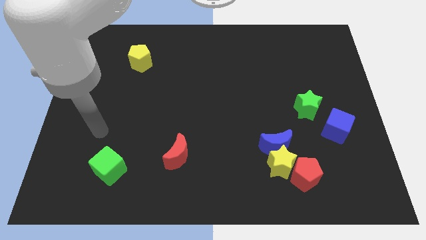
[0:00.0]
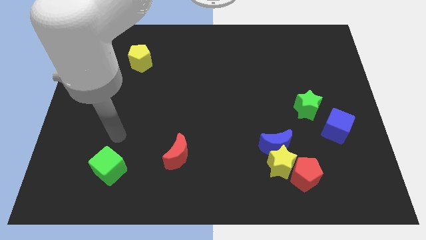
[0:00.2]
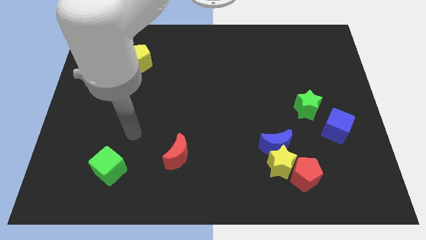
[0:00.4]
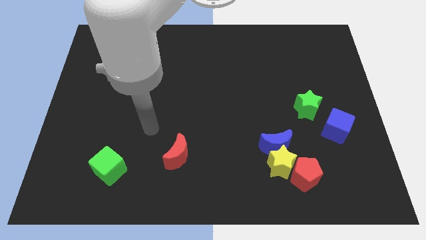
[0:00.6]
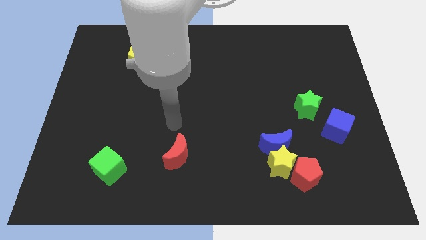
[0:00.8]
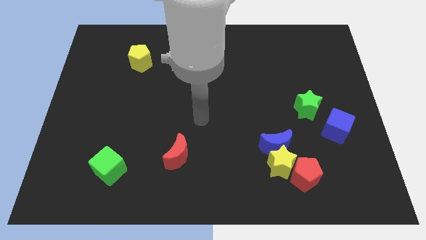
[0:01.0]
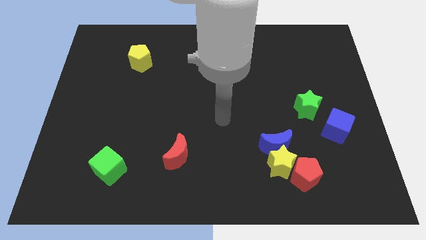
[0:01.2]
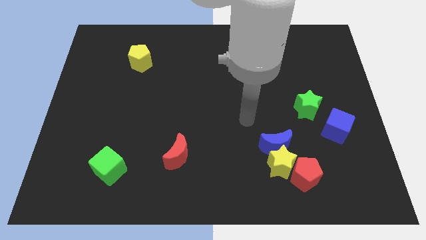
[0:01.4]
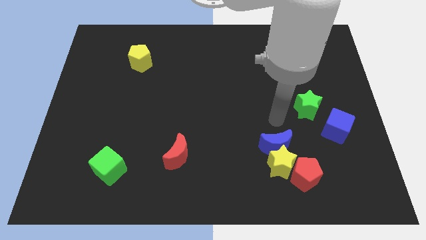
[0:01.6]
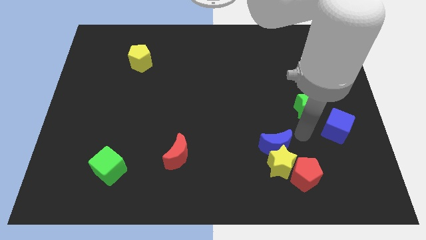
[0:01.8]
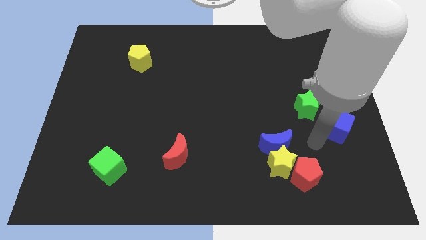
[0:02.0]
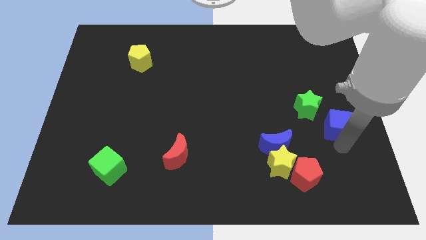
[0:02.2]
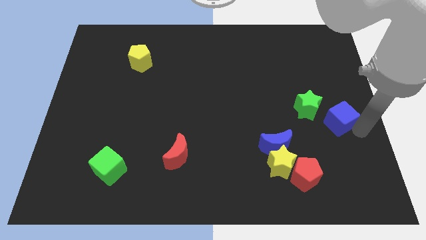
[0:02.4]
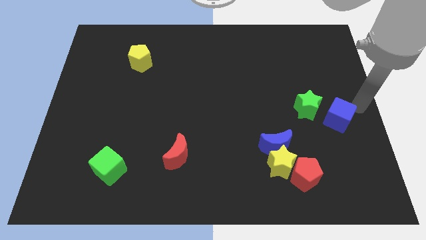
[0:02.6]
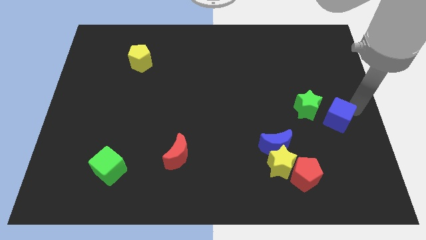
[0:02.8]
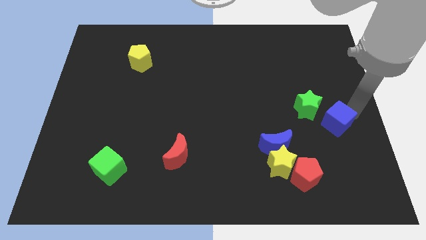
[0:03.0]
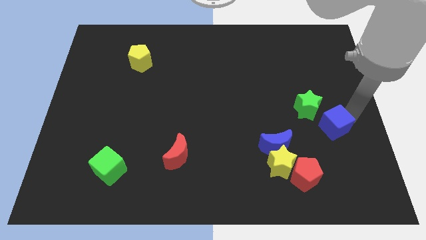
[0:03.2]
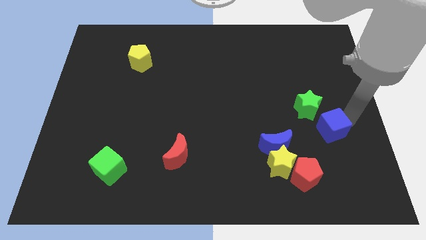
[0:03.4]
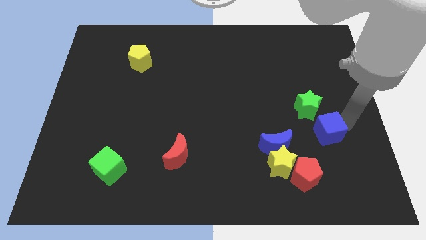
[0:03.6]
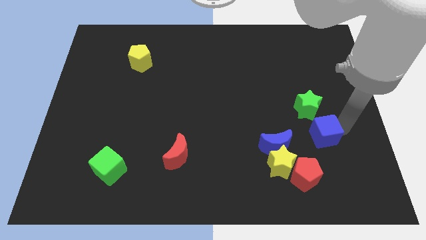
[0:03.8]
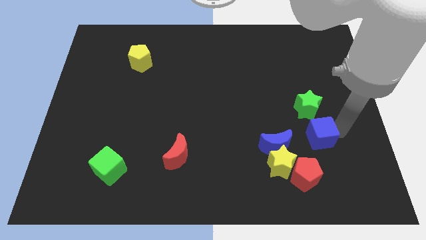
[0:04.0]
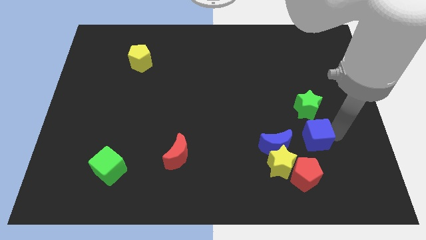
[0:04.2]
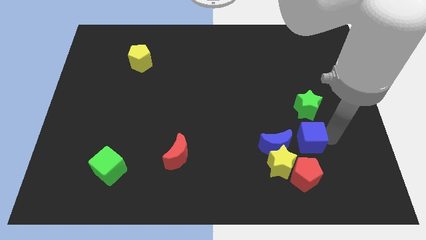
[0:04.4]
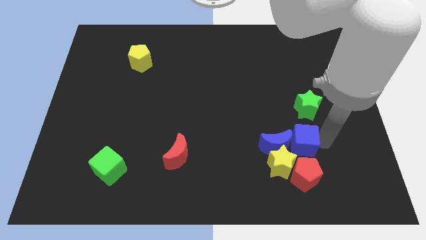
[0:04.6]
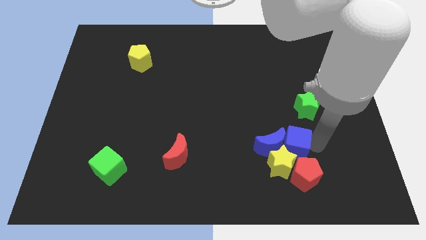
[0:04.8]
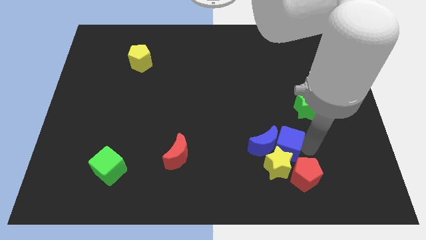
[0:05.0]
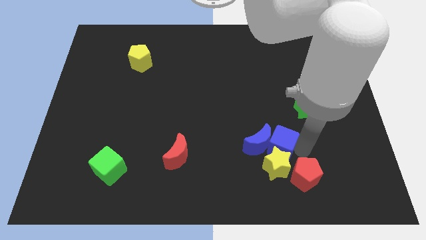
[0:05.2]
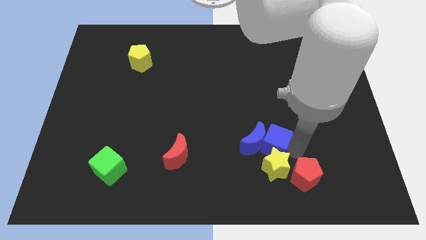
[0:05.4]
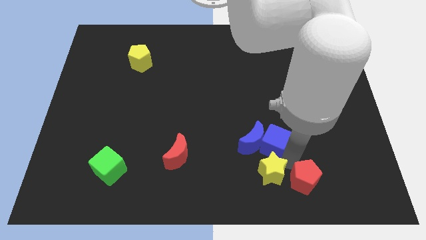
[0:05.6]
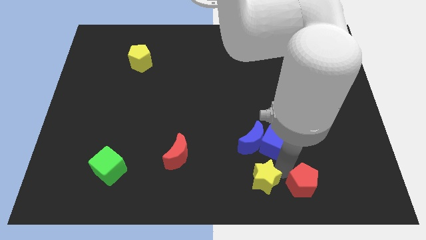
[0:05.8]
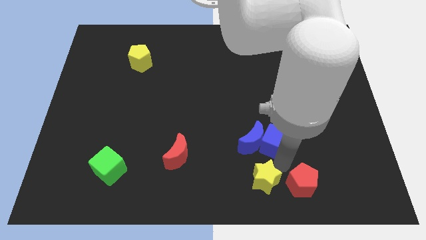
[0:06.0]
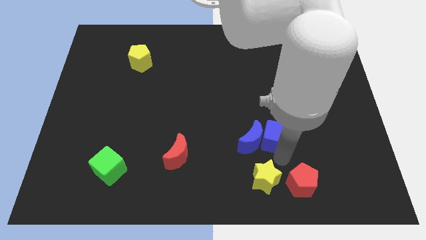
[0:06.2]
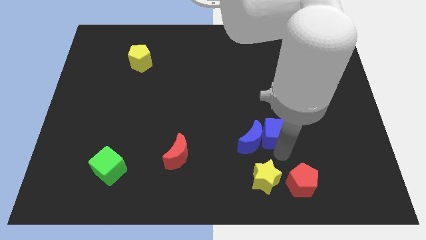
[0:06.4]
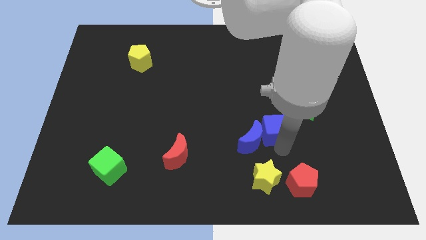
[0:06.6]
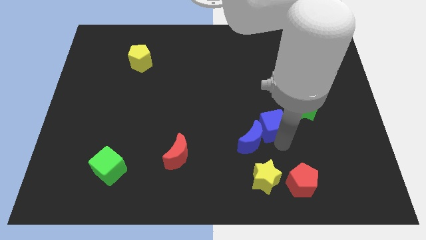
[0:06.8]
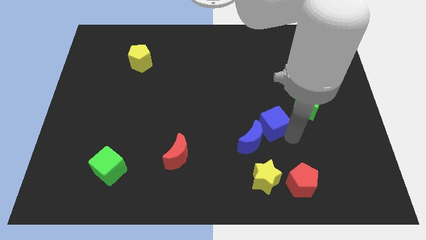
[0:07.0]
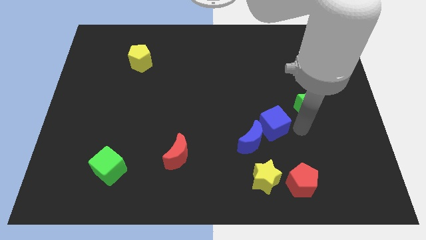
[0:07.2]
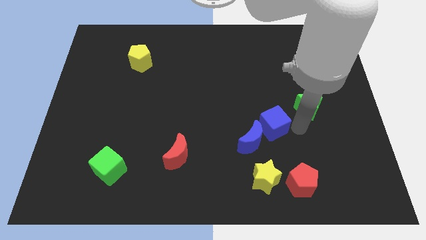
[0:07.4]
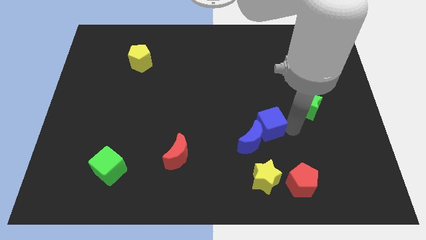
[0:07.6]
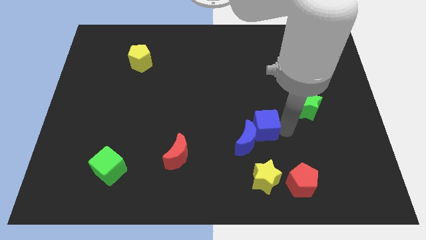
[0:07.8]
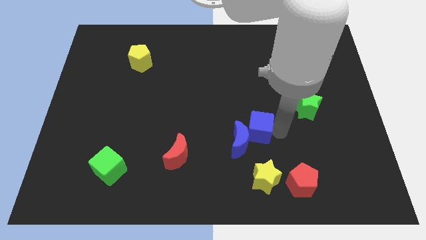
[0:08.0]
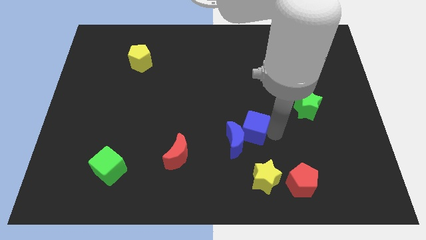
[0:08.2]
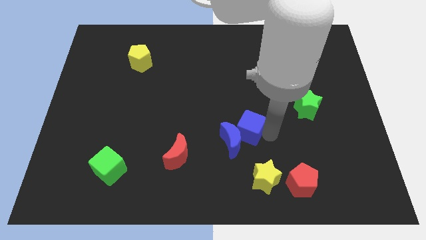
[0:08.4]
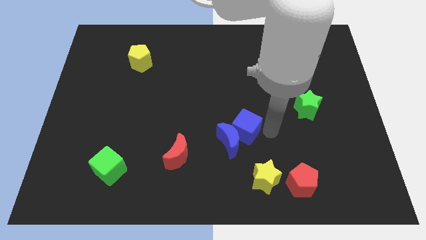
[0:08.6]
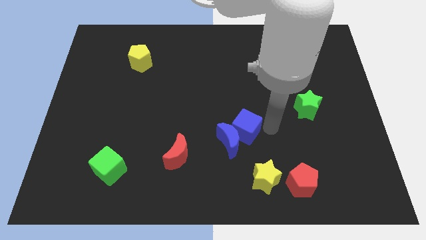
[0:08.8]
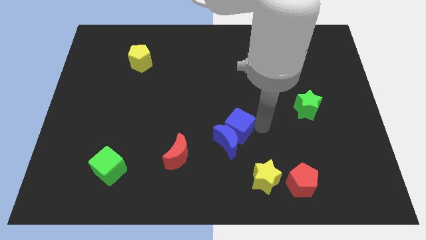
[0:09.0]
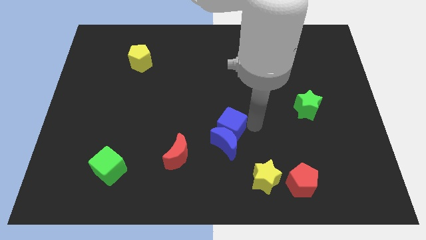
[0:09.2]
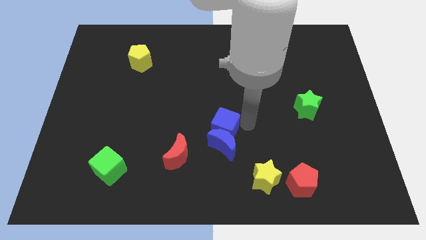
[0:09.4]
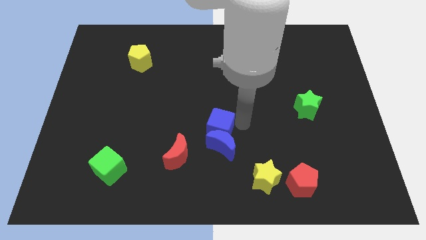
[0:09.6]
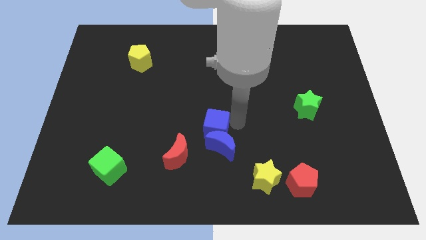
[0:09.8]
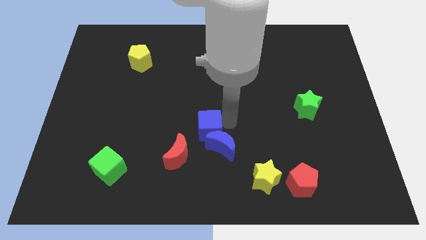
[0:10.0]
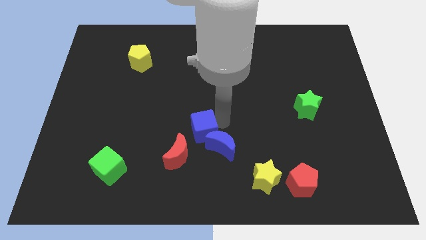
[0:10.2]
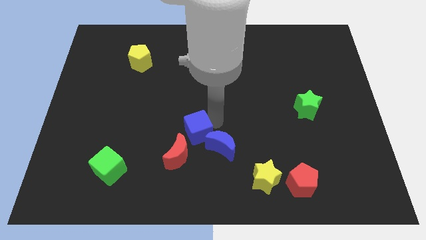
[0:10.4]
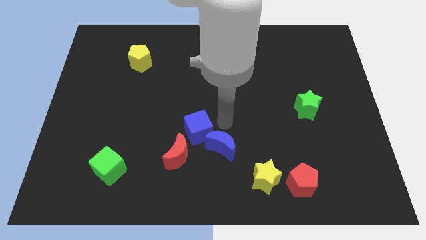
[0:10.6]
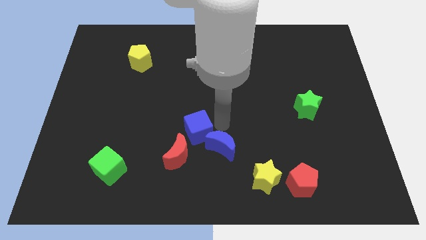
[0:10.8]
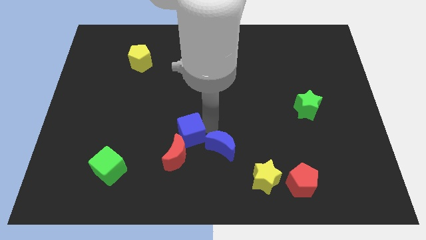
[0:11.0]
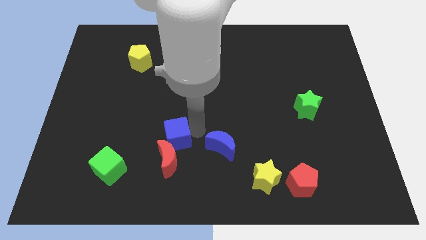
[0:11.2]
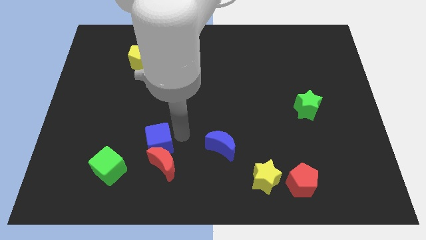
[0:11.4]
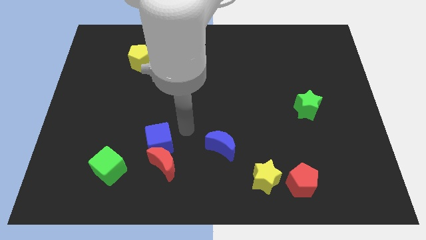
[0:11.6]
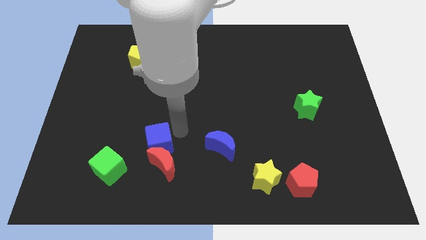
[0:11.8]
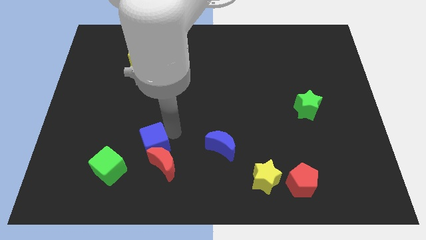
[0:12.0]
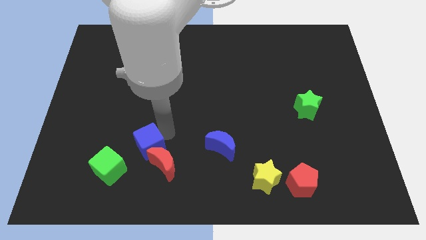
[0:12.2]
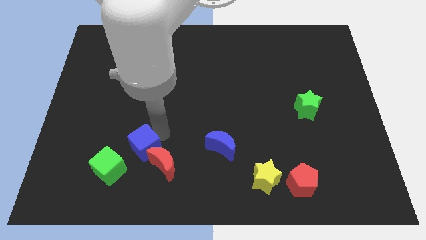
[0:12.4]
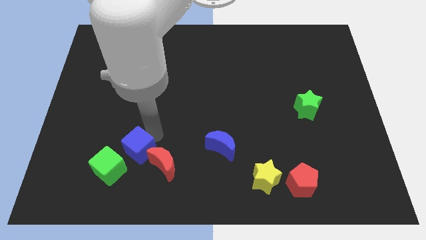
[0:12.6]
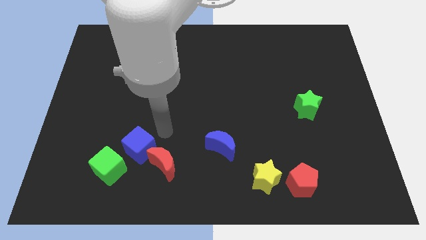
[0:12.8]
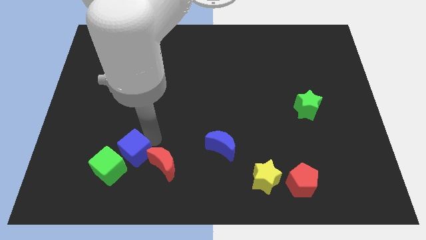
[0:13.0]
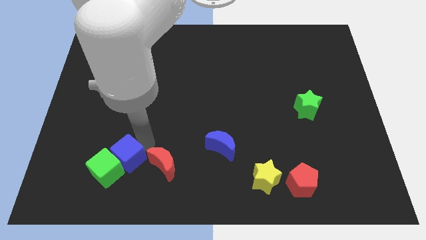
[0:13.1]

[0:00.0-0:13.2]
slide the blue cube next to the green cube

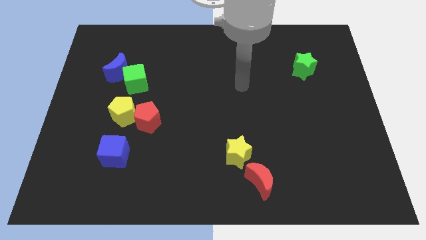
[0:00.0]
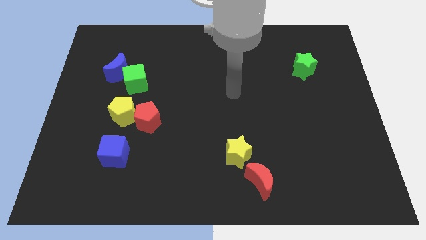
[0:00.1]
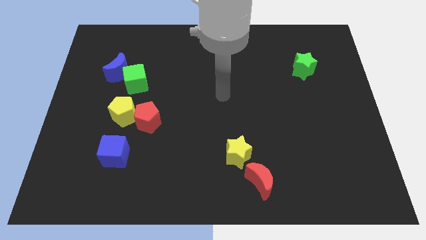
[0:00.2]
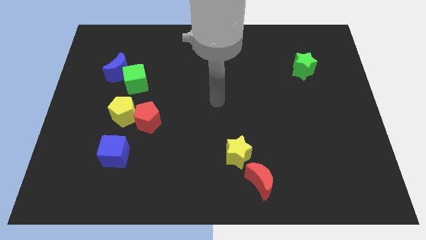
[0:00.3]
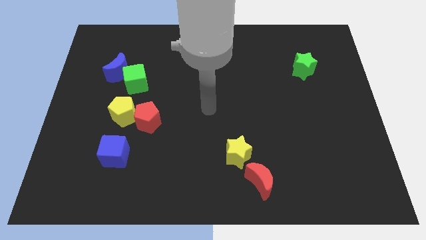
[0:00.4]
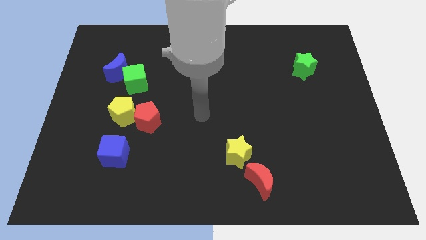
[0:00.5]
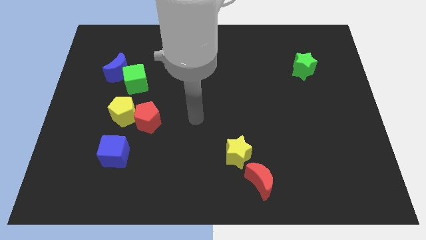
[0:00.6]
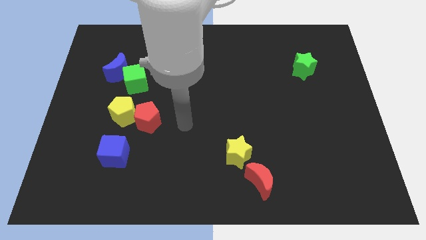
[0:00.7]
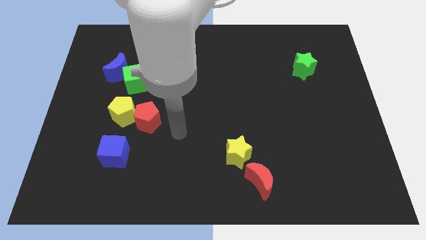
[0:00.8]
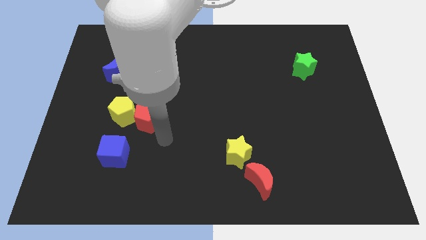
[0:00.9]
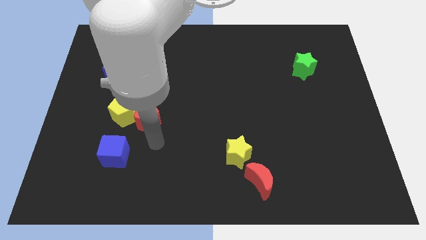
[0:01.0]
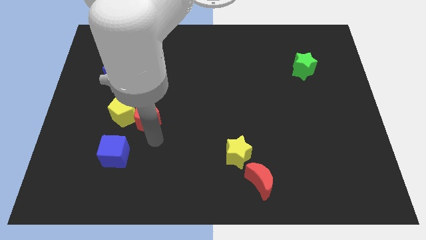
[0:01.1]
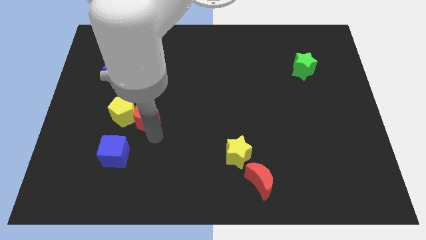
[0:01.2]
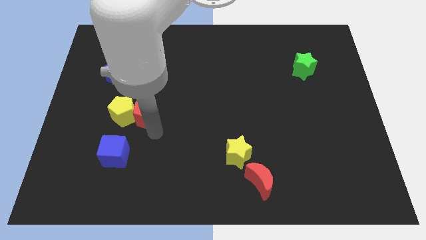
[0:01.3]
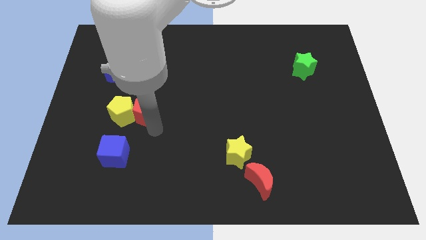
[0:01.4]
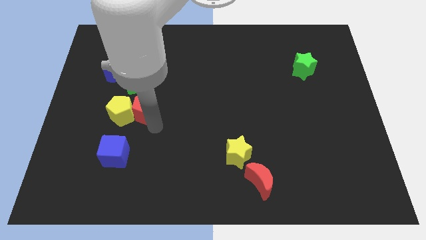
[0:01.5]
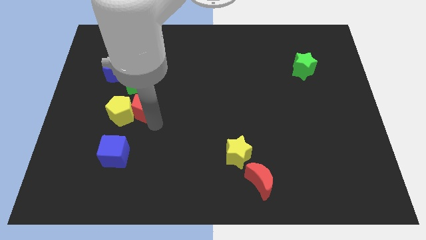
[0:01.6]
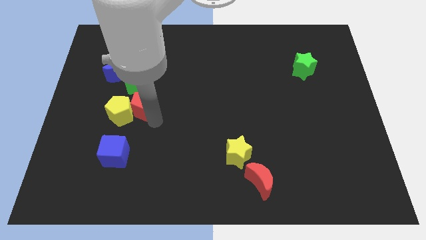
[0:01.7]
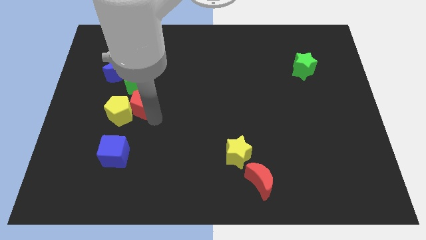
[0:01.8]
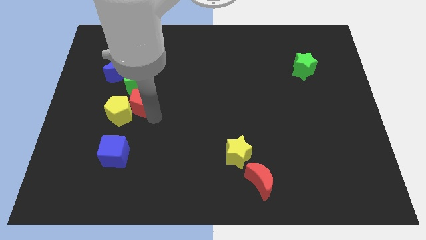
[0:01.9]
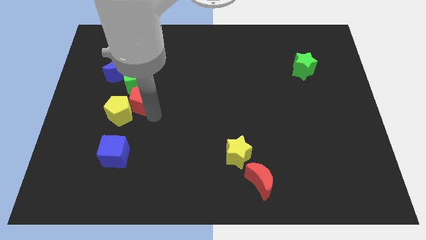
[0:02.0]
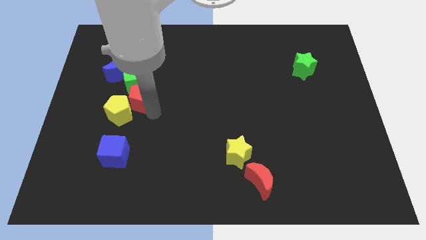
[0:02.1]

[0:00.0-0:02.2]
move the red pentagon to the green cube
